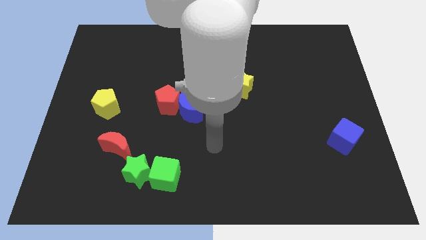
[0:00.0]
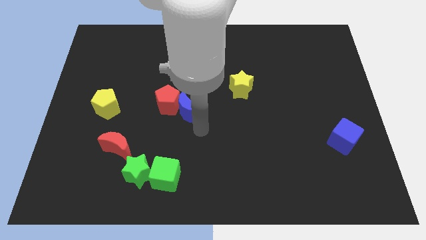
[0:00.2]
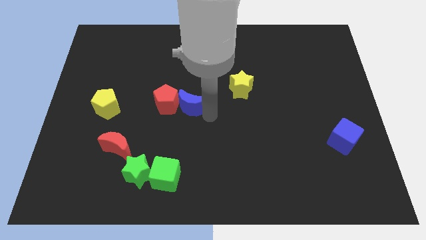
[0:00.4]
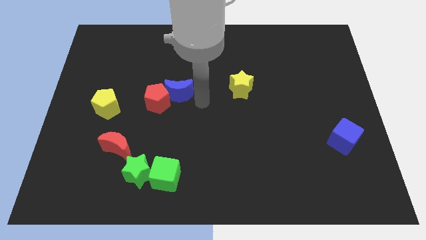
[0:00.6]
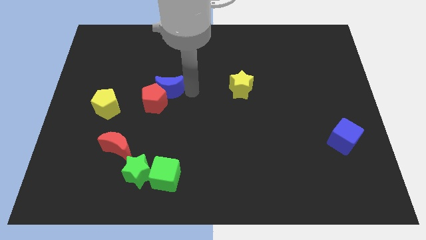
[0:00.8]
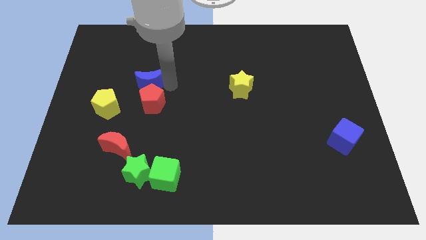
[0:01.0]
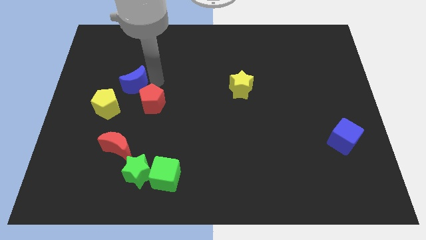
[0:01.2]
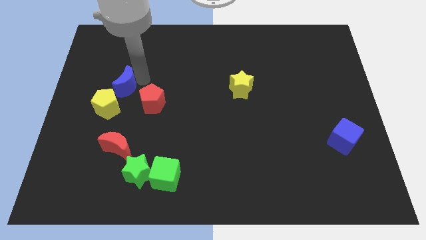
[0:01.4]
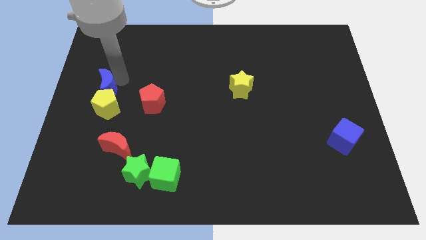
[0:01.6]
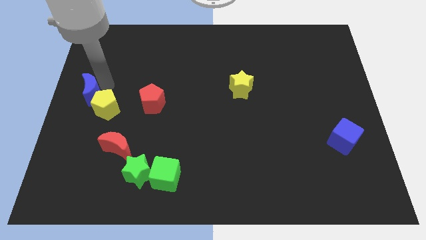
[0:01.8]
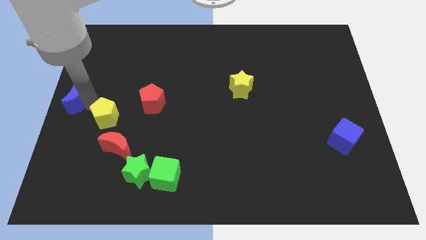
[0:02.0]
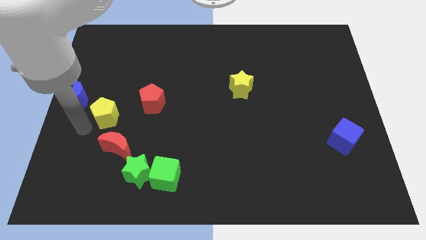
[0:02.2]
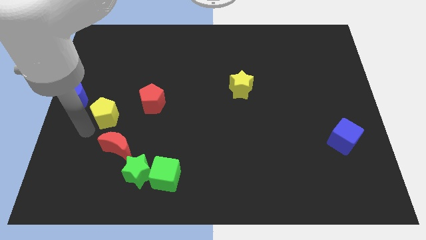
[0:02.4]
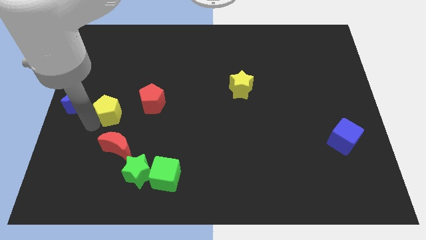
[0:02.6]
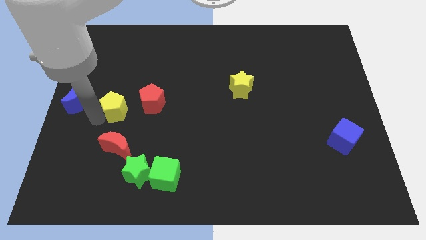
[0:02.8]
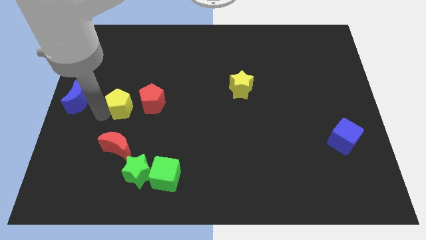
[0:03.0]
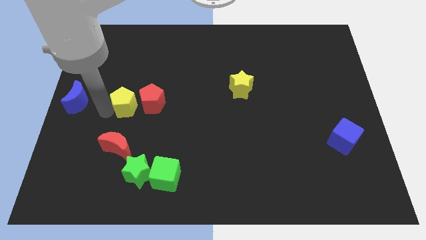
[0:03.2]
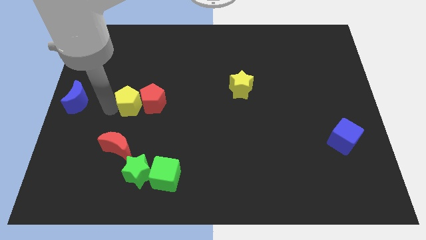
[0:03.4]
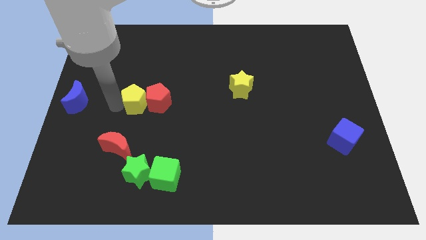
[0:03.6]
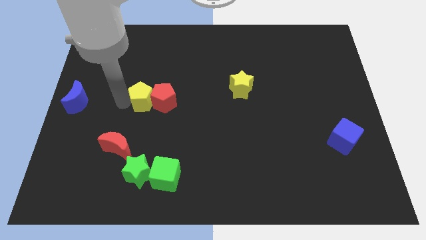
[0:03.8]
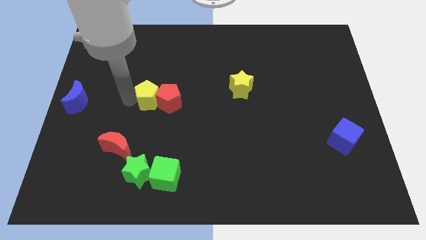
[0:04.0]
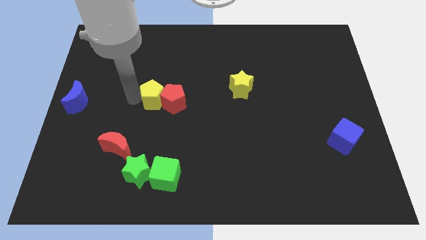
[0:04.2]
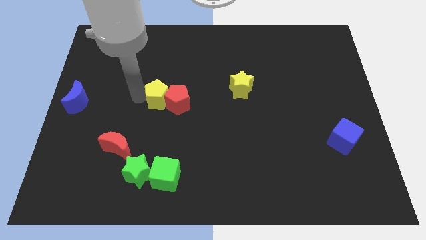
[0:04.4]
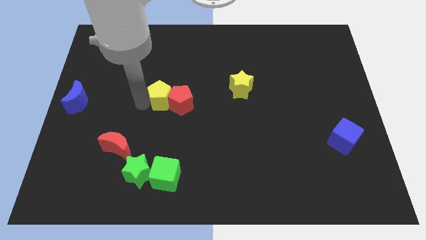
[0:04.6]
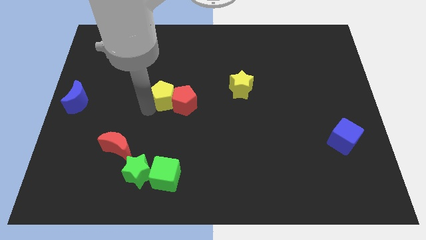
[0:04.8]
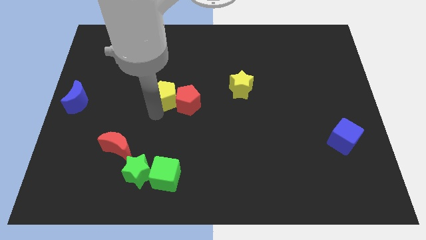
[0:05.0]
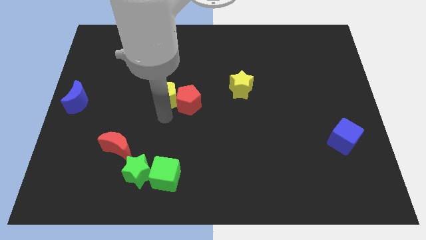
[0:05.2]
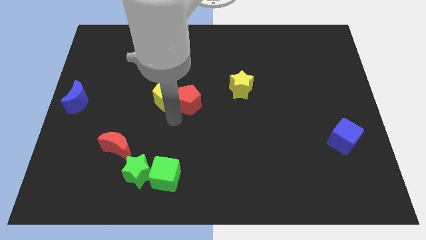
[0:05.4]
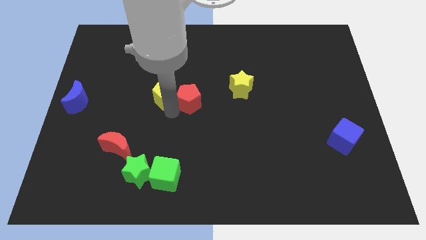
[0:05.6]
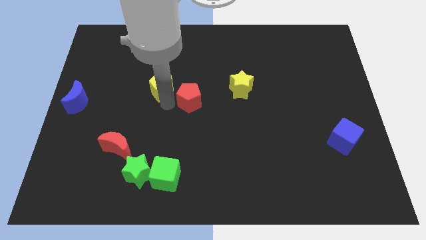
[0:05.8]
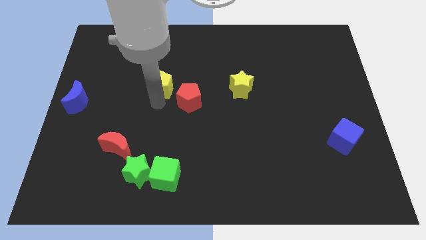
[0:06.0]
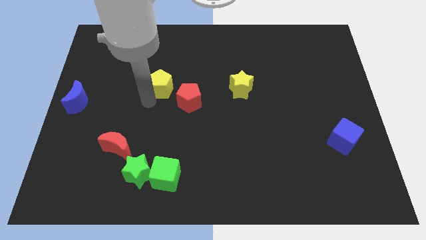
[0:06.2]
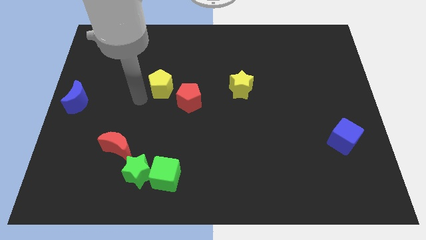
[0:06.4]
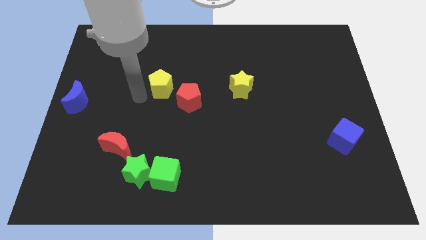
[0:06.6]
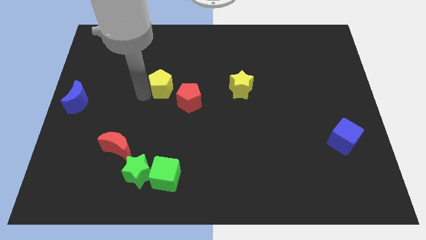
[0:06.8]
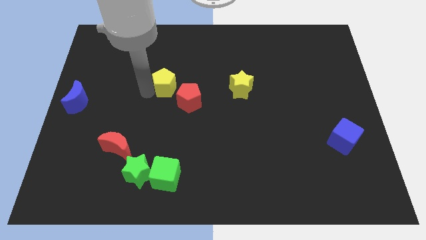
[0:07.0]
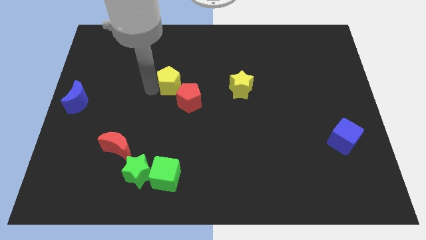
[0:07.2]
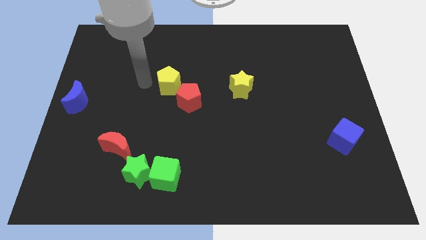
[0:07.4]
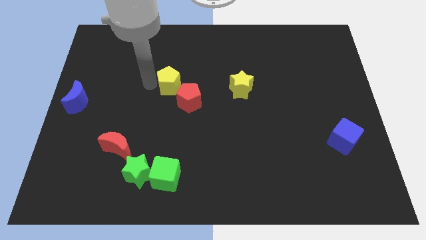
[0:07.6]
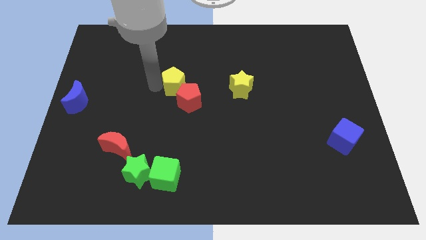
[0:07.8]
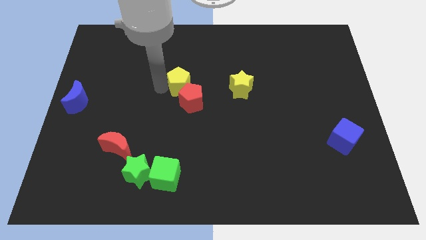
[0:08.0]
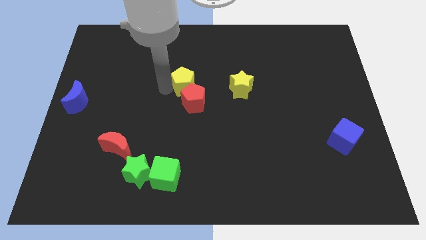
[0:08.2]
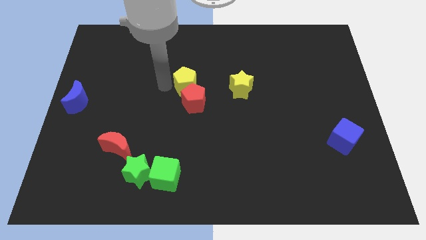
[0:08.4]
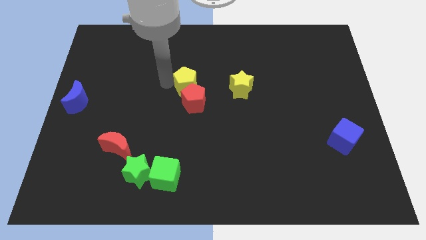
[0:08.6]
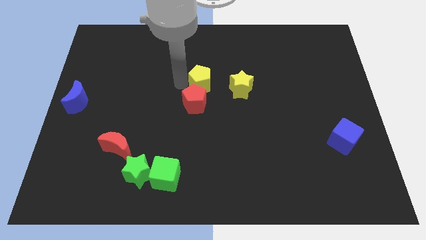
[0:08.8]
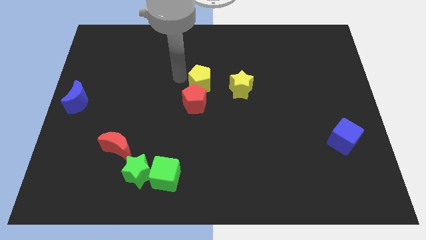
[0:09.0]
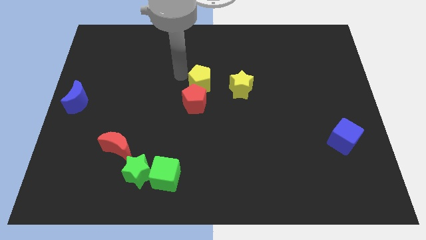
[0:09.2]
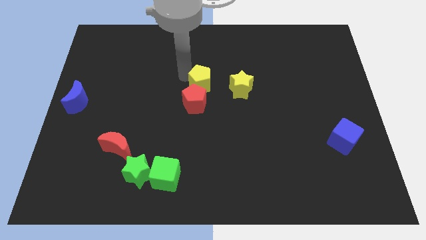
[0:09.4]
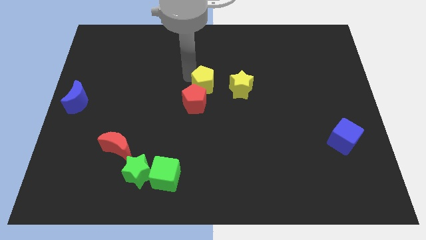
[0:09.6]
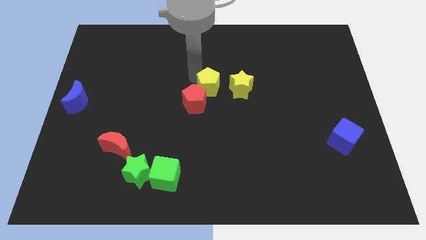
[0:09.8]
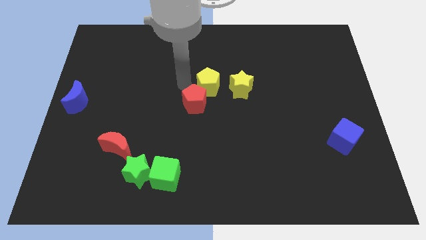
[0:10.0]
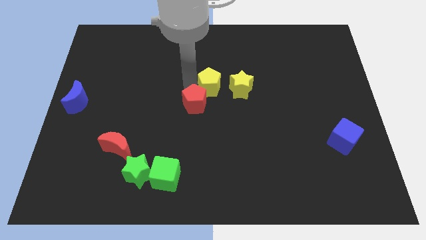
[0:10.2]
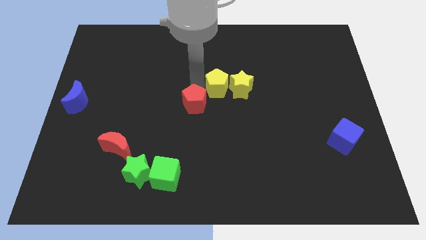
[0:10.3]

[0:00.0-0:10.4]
push the yellow pentagon next to the yellow star

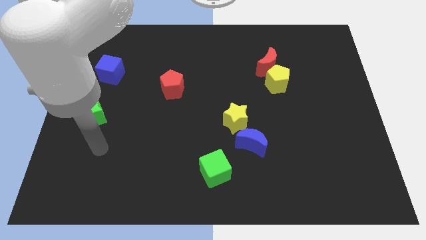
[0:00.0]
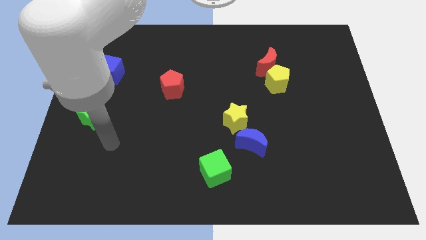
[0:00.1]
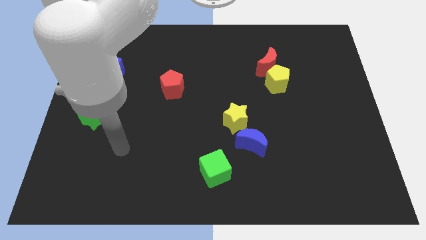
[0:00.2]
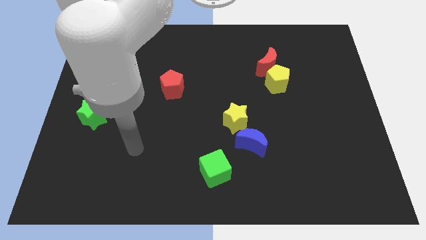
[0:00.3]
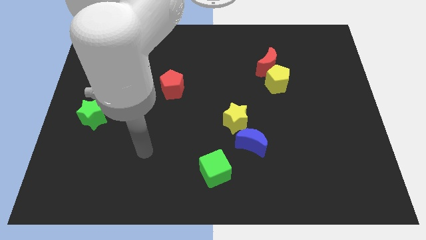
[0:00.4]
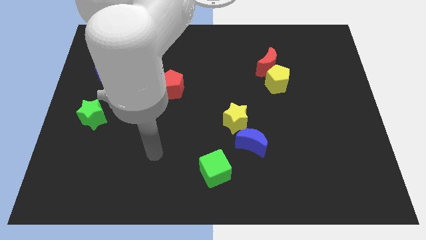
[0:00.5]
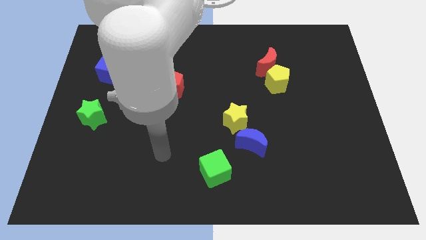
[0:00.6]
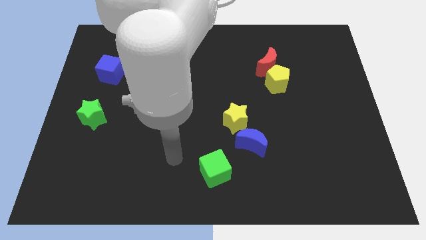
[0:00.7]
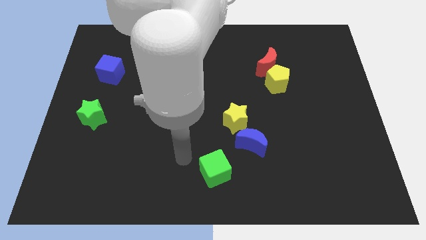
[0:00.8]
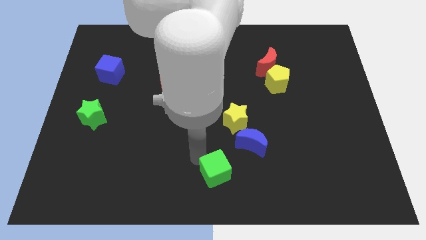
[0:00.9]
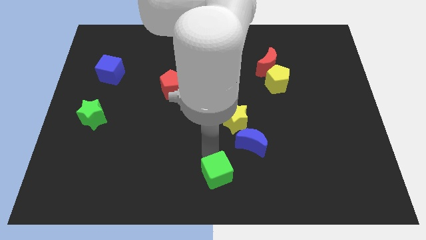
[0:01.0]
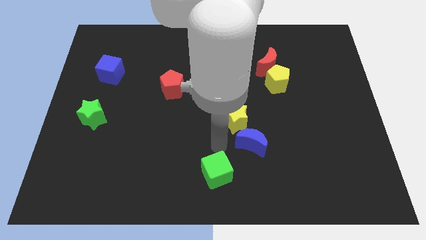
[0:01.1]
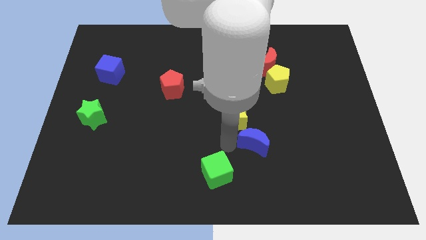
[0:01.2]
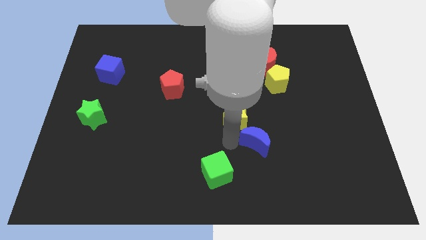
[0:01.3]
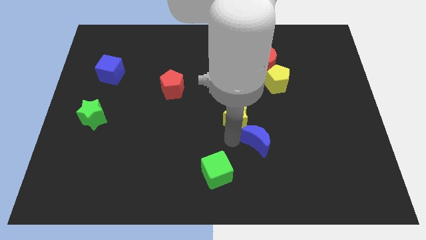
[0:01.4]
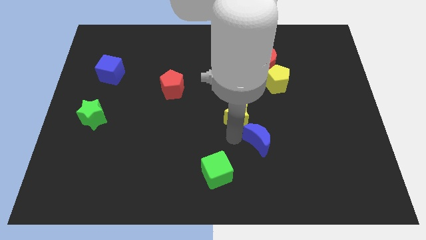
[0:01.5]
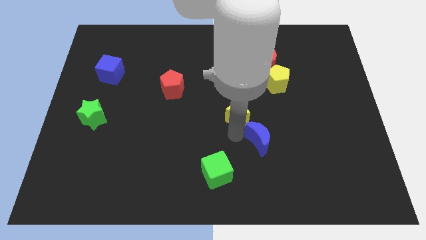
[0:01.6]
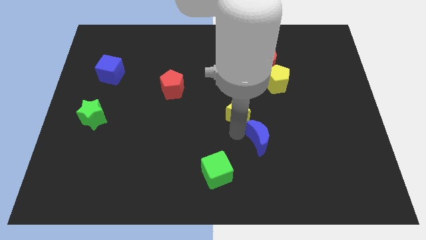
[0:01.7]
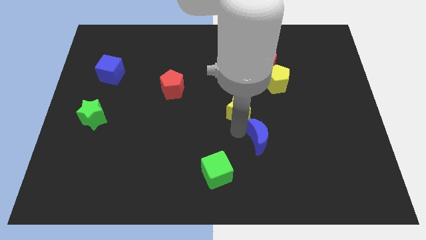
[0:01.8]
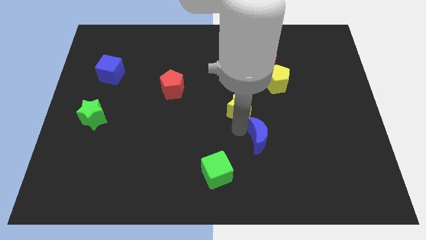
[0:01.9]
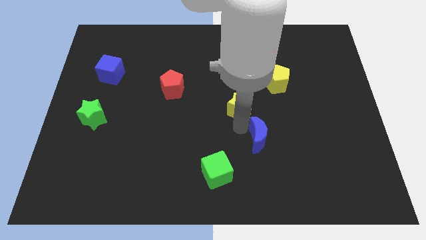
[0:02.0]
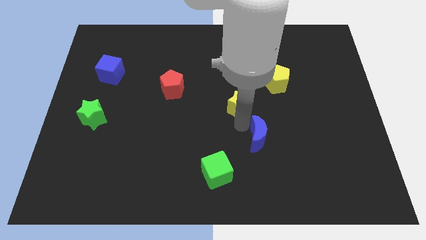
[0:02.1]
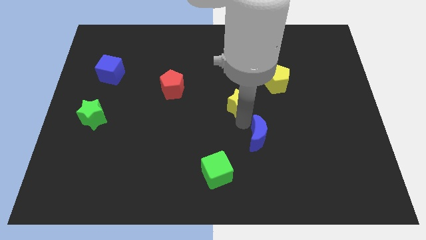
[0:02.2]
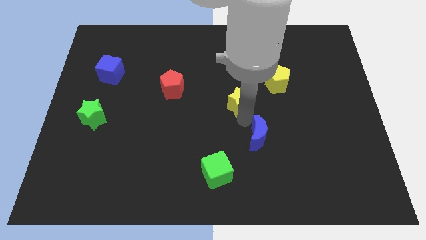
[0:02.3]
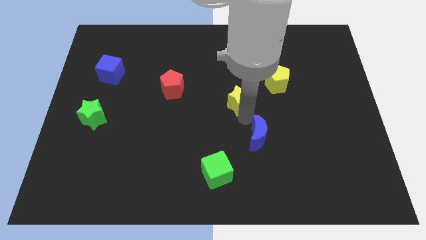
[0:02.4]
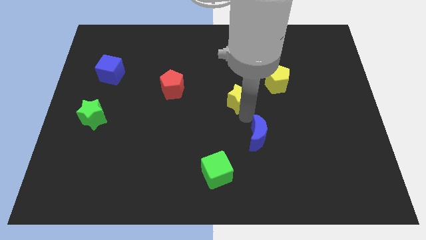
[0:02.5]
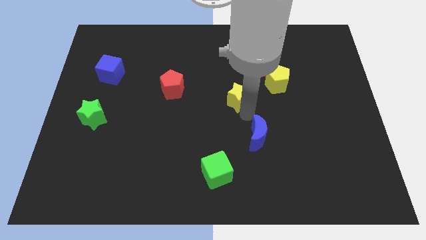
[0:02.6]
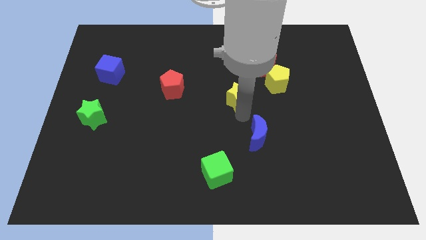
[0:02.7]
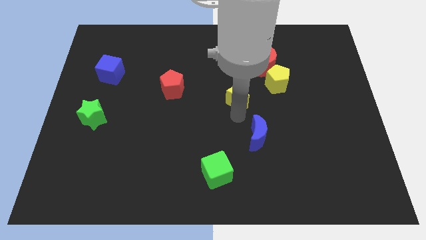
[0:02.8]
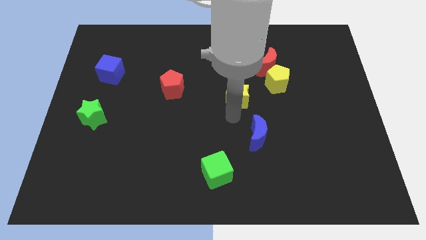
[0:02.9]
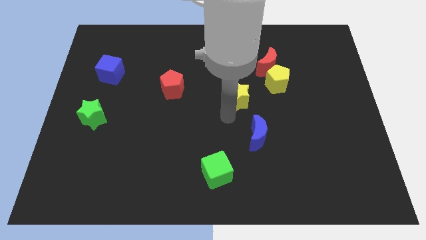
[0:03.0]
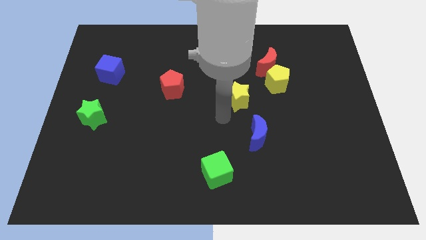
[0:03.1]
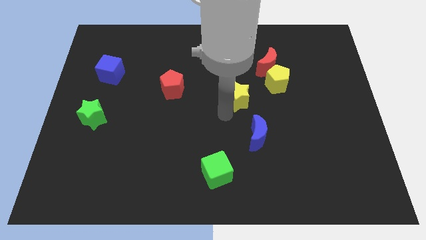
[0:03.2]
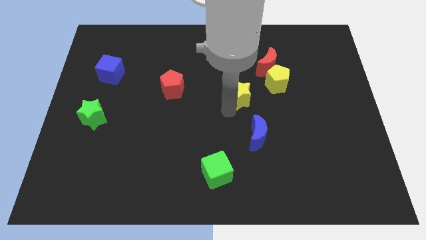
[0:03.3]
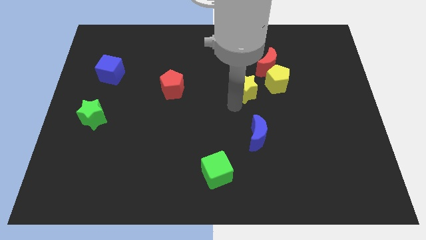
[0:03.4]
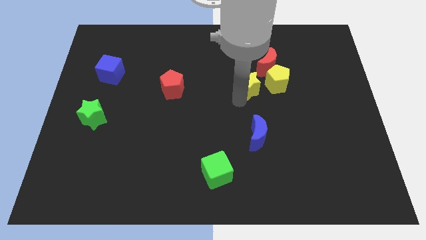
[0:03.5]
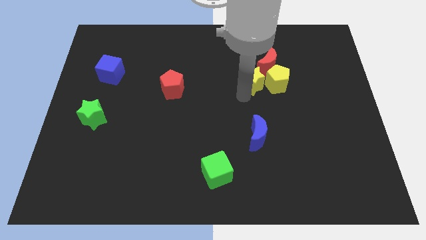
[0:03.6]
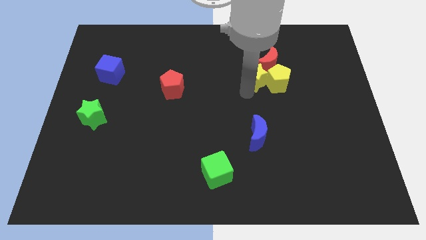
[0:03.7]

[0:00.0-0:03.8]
put the yellow star close to the red moon
